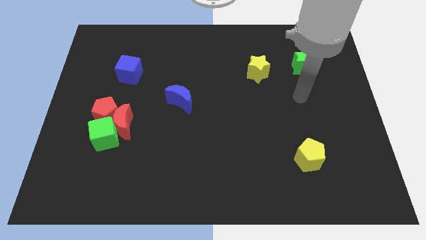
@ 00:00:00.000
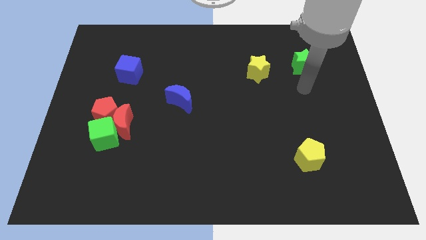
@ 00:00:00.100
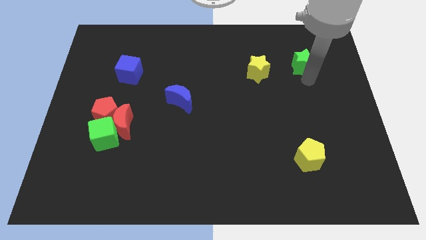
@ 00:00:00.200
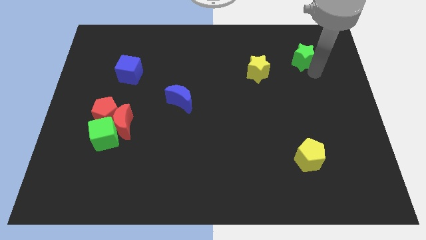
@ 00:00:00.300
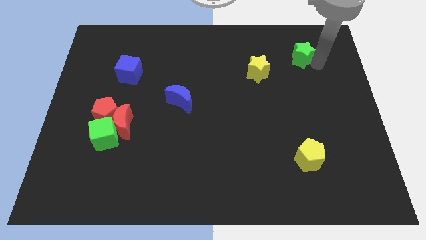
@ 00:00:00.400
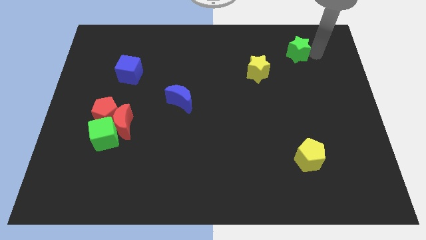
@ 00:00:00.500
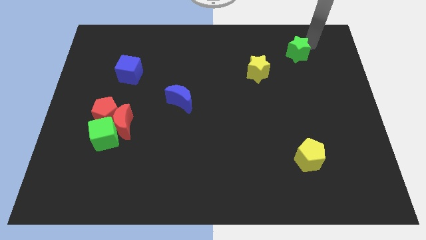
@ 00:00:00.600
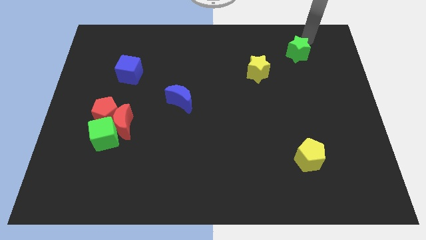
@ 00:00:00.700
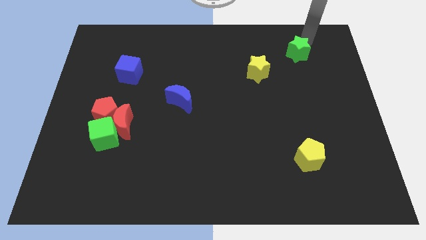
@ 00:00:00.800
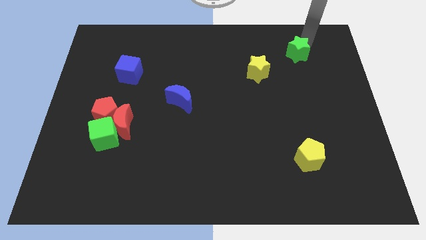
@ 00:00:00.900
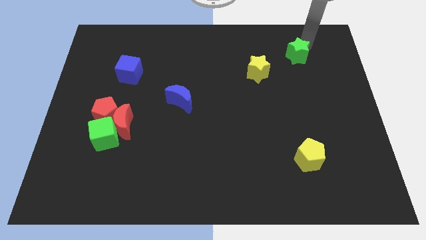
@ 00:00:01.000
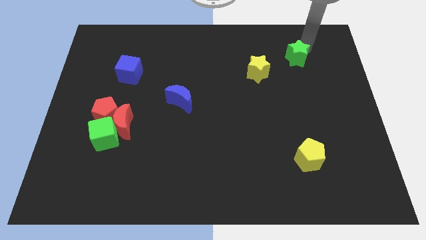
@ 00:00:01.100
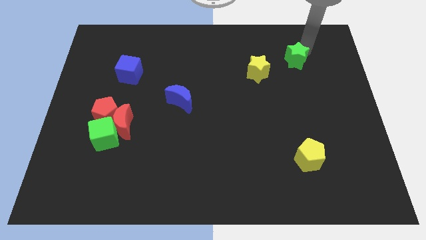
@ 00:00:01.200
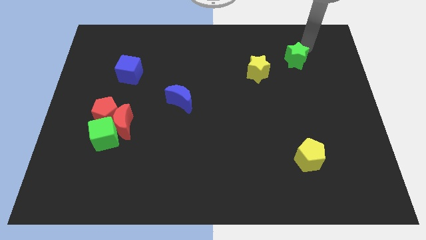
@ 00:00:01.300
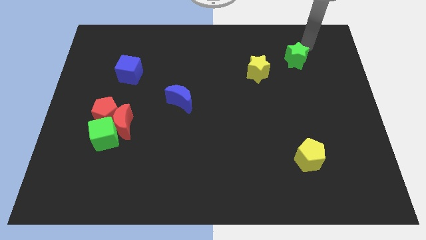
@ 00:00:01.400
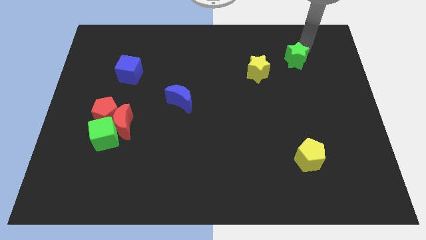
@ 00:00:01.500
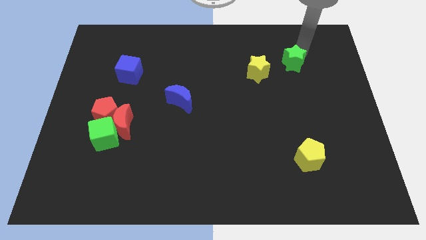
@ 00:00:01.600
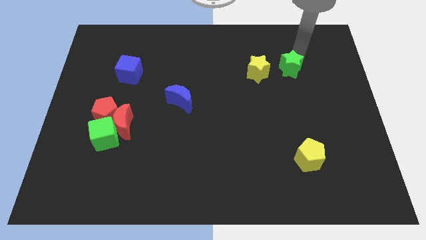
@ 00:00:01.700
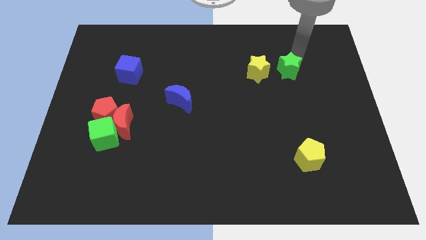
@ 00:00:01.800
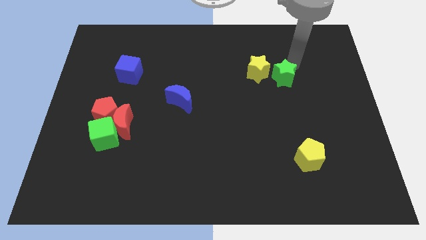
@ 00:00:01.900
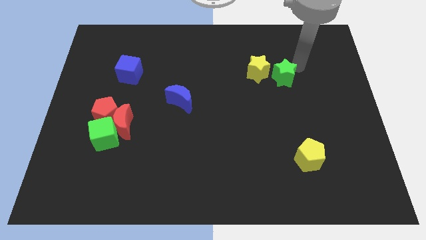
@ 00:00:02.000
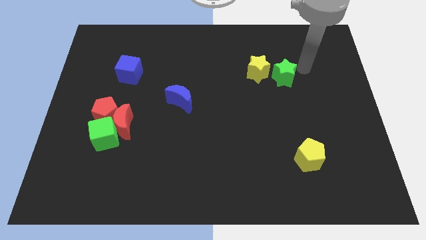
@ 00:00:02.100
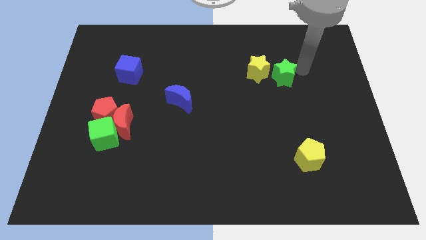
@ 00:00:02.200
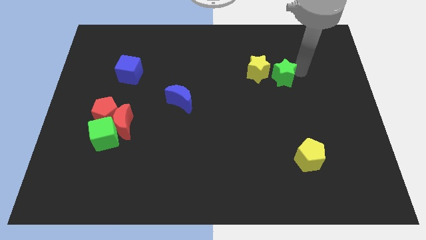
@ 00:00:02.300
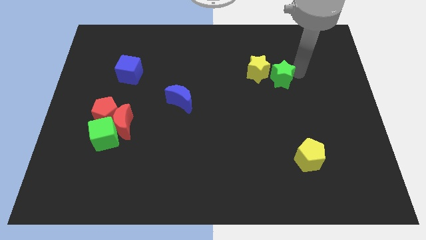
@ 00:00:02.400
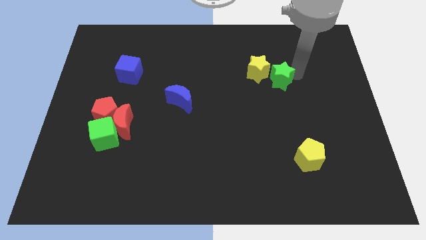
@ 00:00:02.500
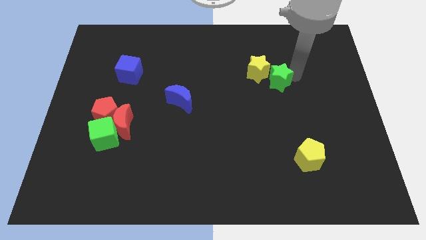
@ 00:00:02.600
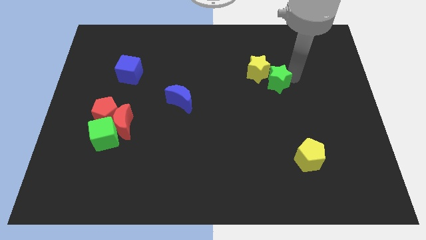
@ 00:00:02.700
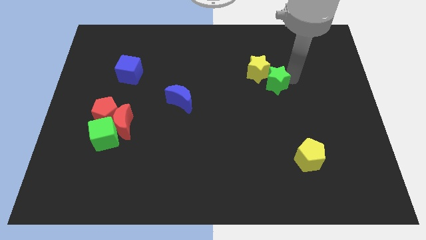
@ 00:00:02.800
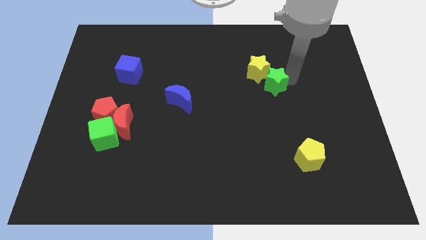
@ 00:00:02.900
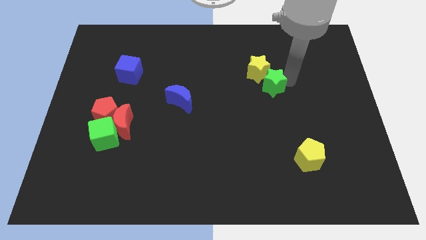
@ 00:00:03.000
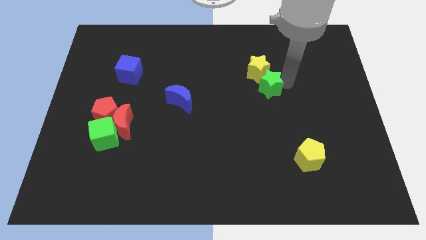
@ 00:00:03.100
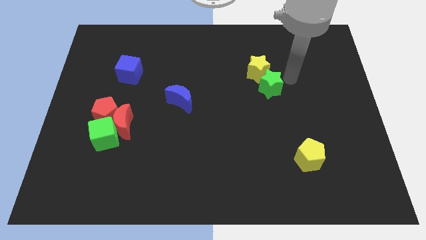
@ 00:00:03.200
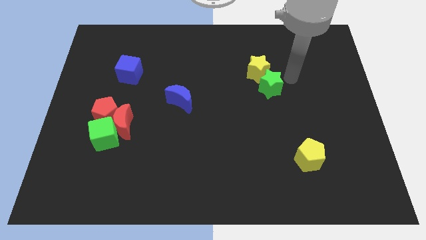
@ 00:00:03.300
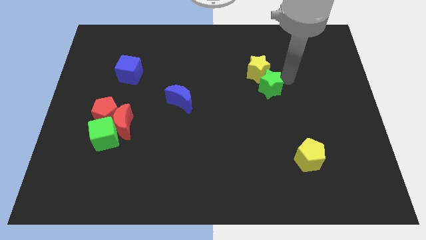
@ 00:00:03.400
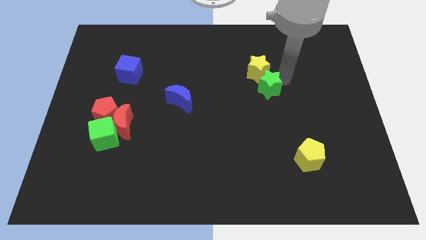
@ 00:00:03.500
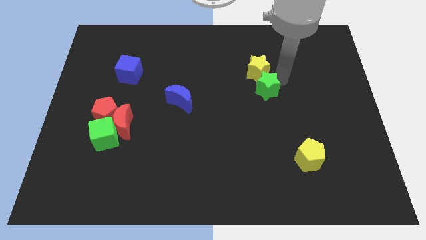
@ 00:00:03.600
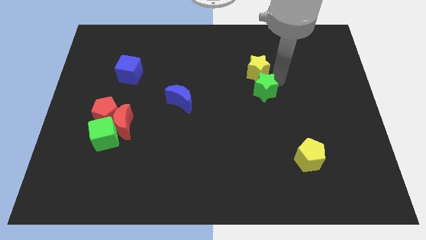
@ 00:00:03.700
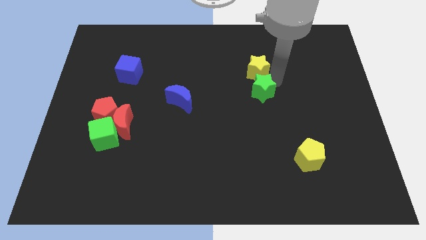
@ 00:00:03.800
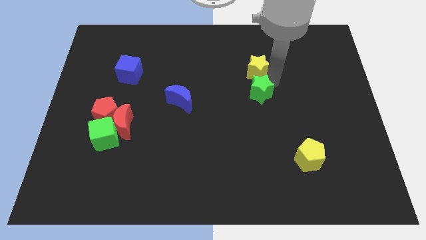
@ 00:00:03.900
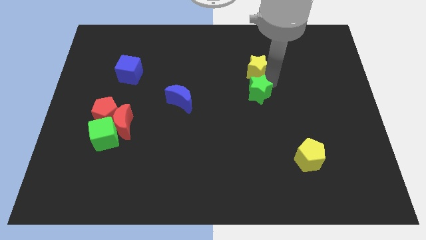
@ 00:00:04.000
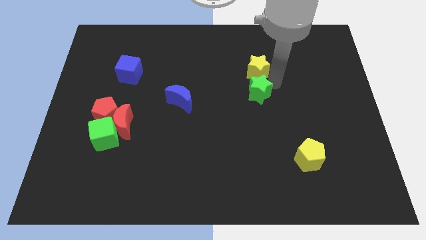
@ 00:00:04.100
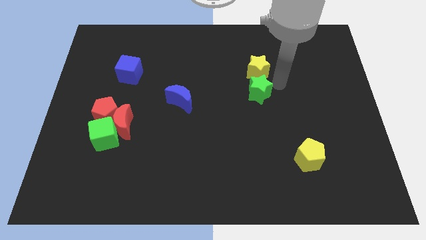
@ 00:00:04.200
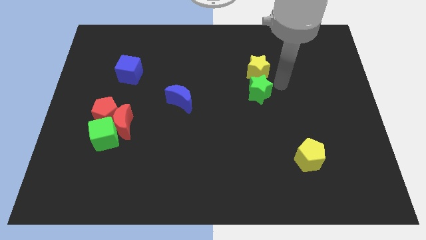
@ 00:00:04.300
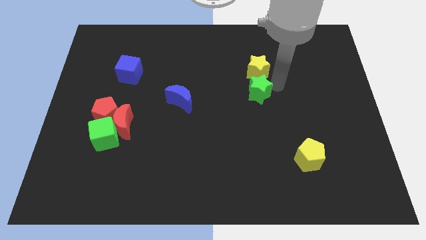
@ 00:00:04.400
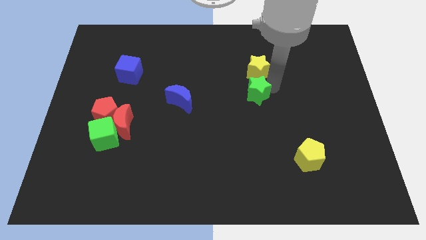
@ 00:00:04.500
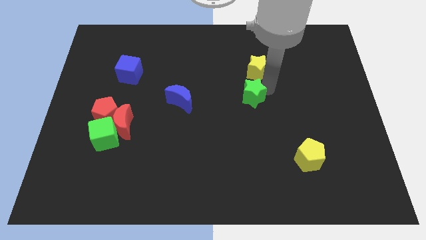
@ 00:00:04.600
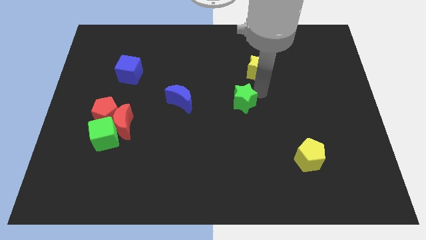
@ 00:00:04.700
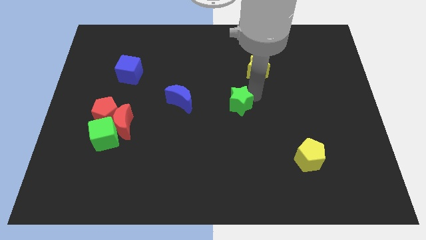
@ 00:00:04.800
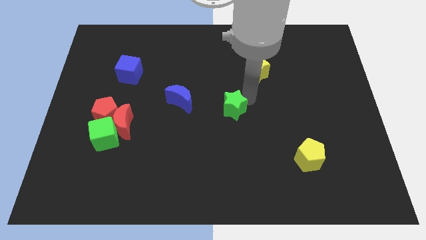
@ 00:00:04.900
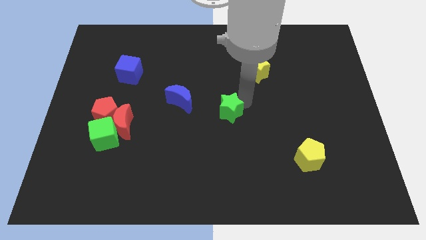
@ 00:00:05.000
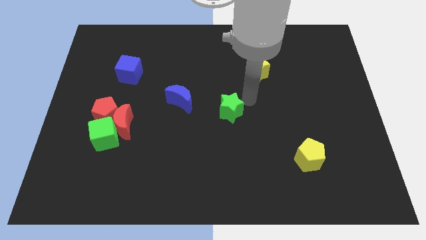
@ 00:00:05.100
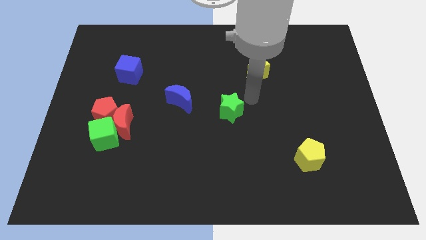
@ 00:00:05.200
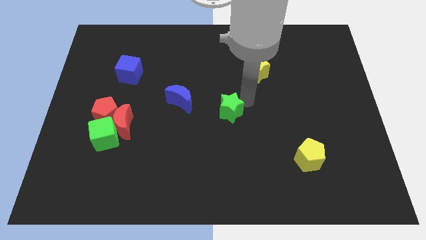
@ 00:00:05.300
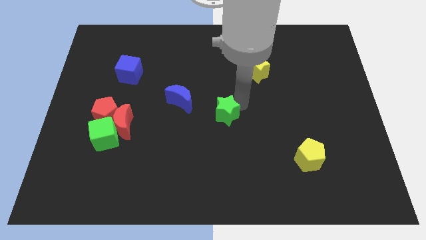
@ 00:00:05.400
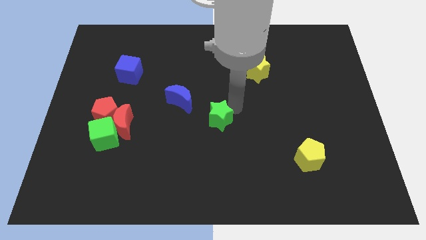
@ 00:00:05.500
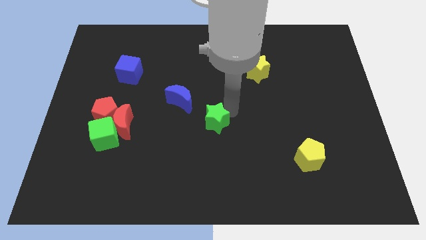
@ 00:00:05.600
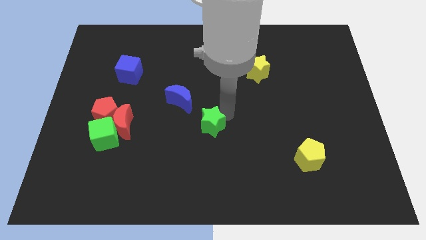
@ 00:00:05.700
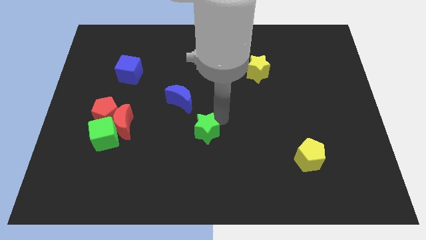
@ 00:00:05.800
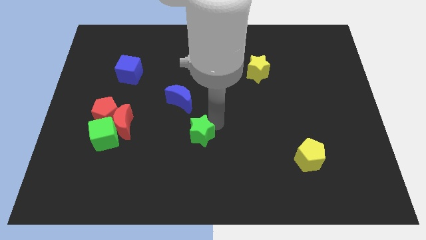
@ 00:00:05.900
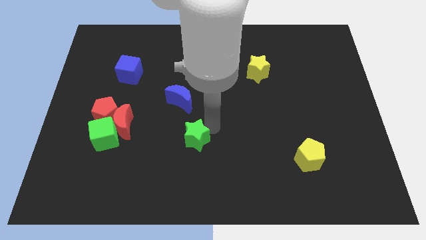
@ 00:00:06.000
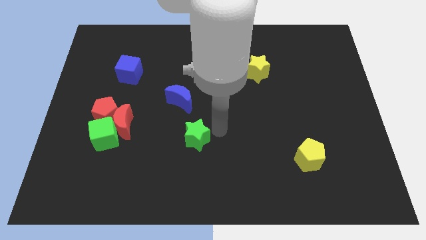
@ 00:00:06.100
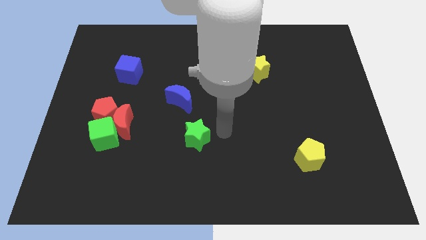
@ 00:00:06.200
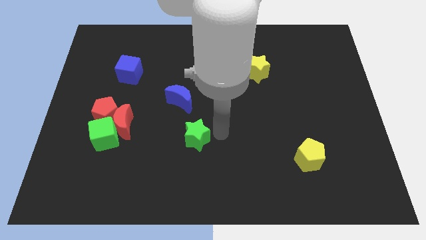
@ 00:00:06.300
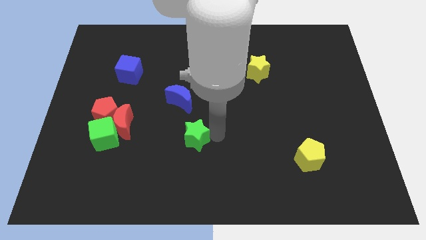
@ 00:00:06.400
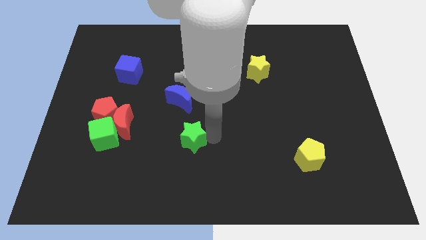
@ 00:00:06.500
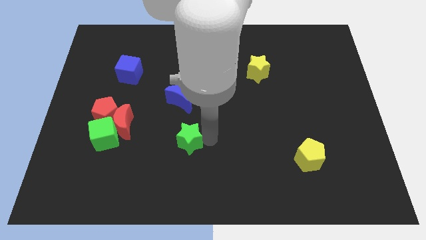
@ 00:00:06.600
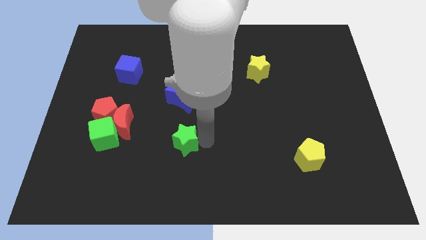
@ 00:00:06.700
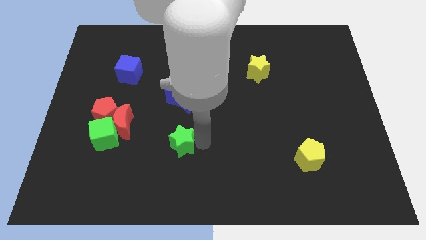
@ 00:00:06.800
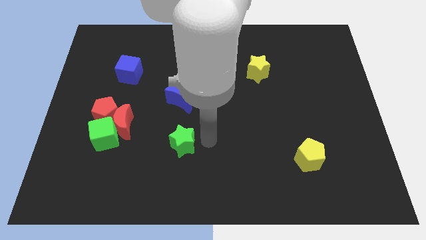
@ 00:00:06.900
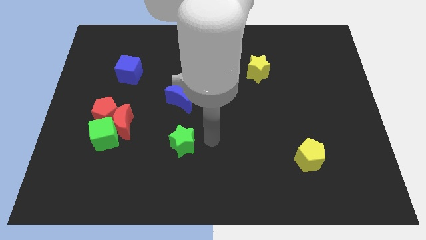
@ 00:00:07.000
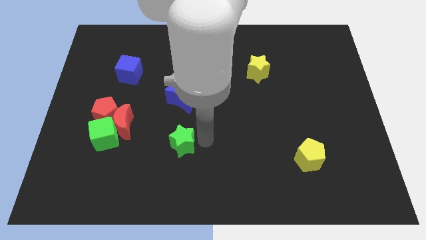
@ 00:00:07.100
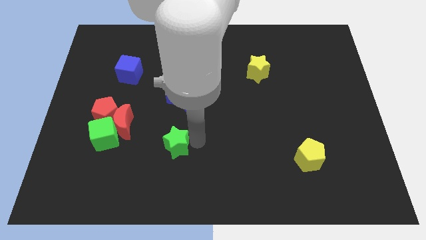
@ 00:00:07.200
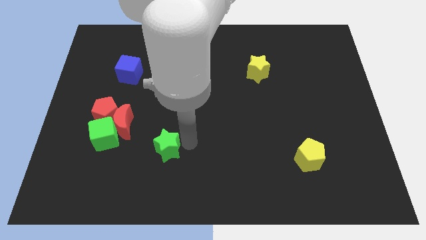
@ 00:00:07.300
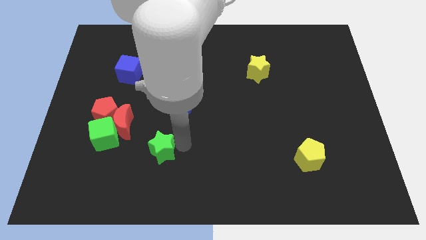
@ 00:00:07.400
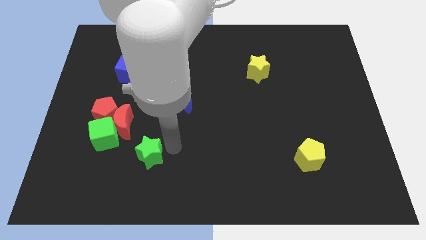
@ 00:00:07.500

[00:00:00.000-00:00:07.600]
push the green star diagonally down and to the right of the green cube
